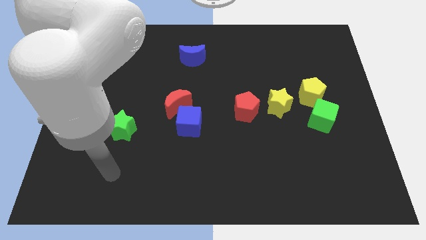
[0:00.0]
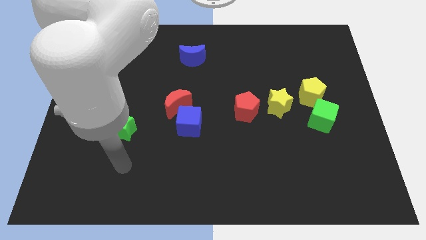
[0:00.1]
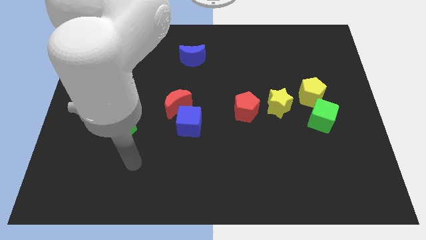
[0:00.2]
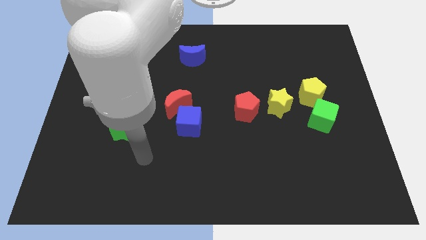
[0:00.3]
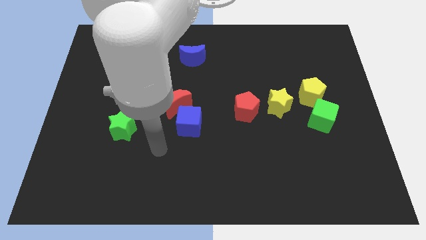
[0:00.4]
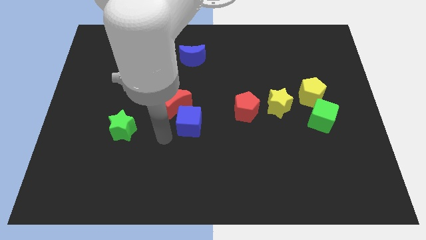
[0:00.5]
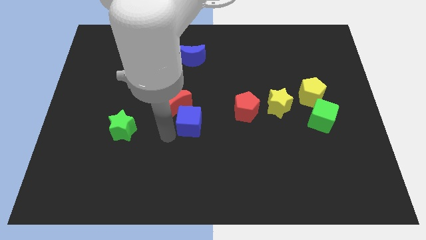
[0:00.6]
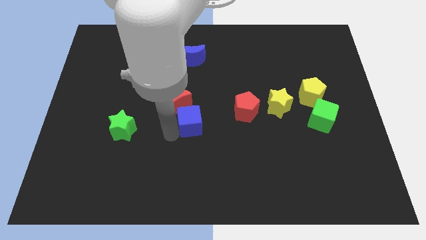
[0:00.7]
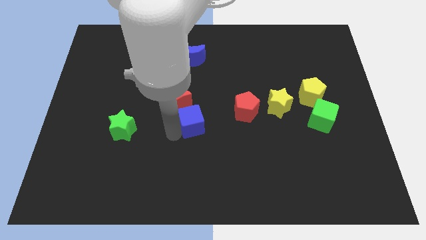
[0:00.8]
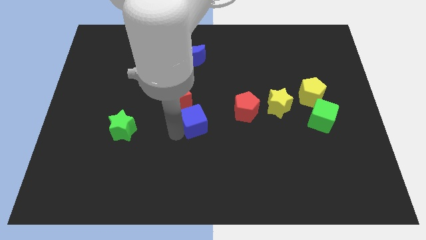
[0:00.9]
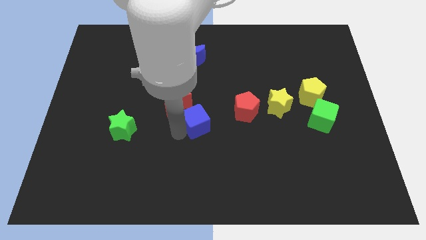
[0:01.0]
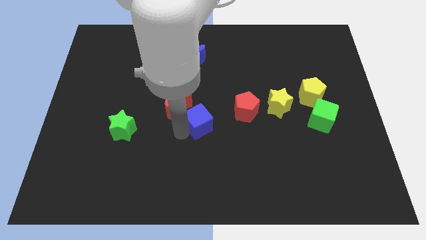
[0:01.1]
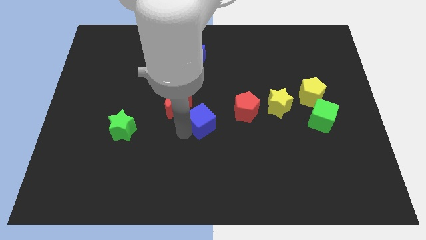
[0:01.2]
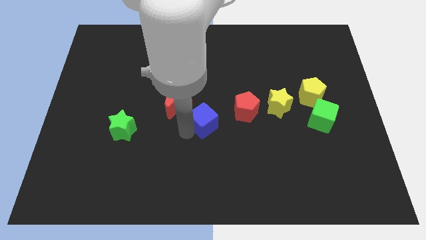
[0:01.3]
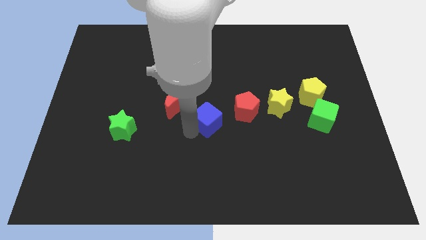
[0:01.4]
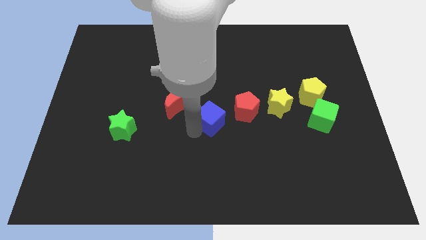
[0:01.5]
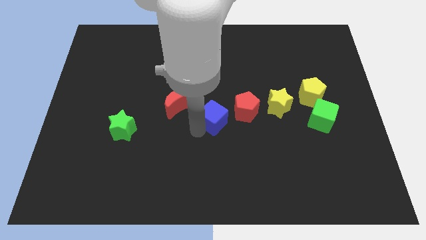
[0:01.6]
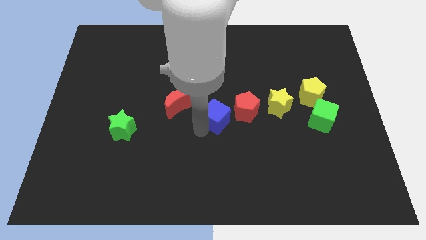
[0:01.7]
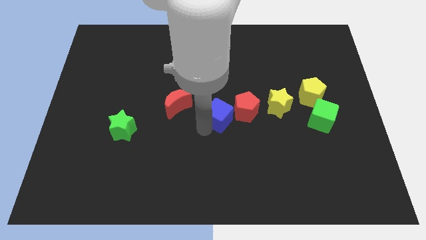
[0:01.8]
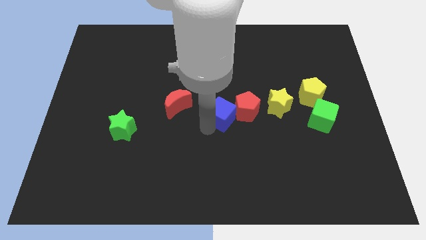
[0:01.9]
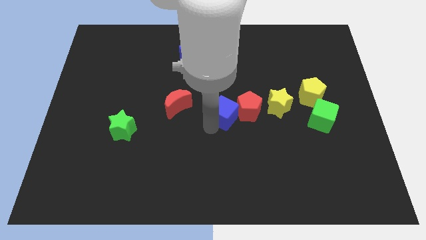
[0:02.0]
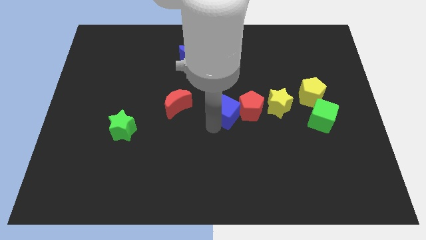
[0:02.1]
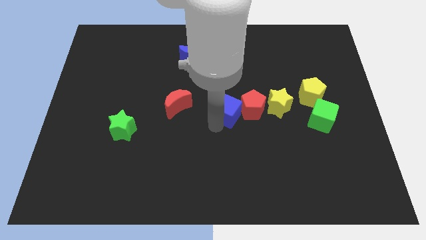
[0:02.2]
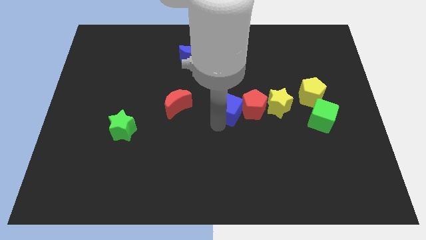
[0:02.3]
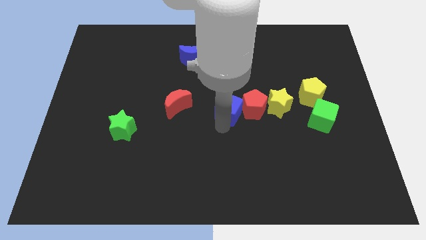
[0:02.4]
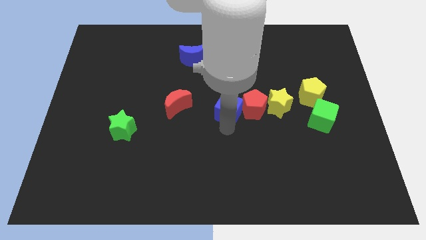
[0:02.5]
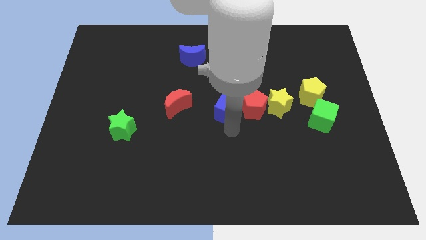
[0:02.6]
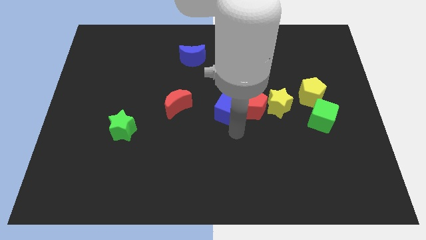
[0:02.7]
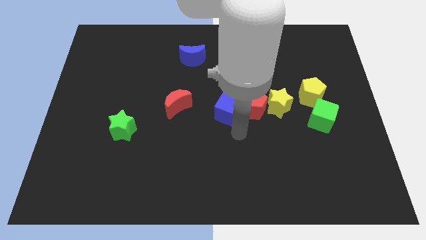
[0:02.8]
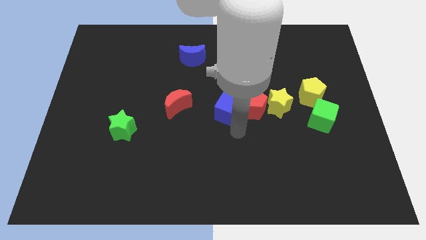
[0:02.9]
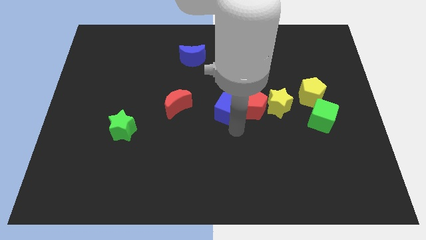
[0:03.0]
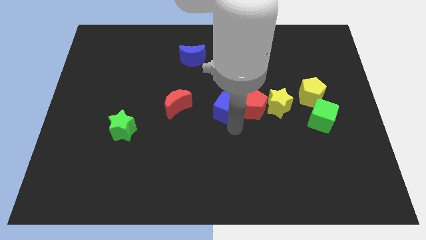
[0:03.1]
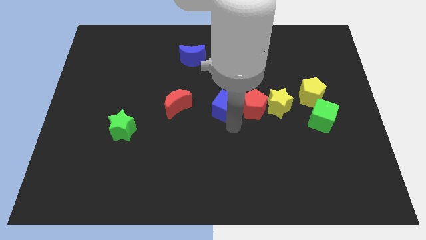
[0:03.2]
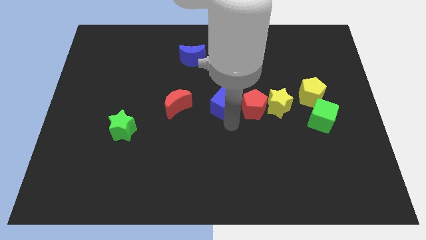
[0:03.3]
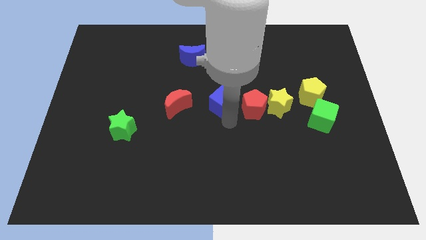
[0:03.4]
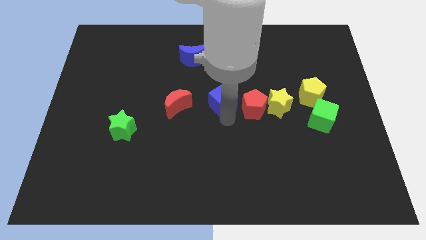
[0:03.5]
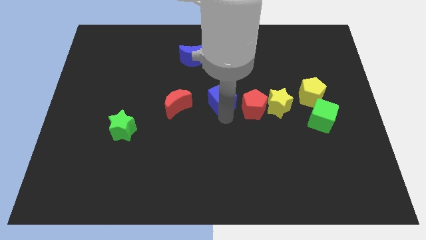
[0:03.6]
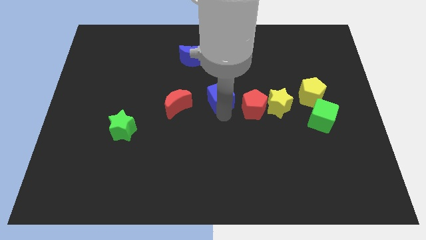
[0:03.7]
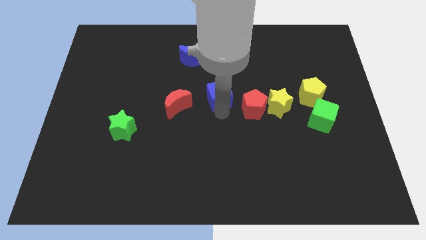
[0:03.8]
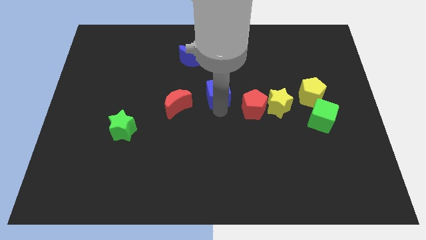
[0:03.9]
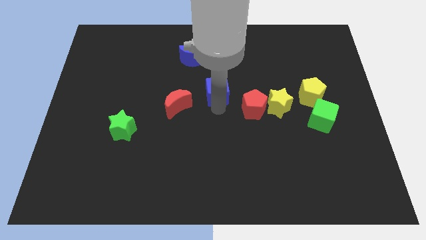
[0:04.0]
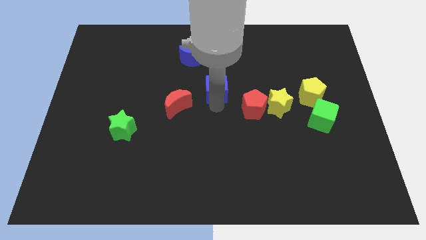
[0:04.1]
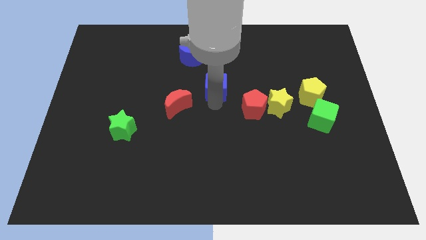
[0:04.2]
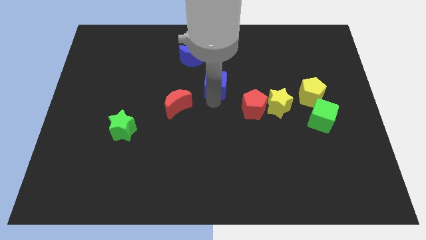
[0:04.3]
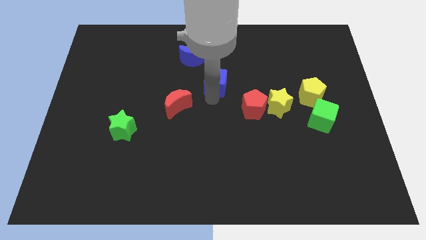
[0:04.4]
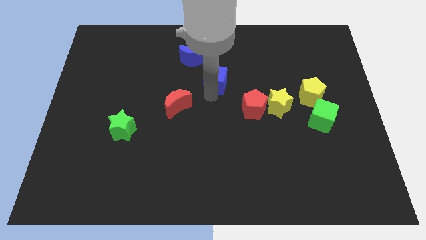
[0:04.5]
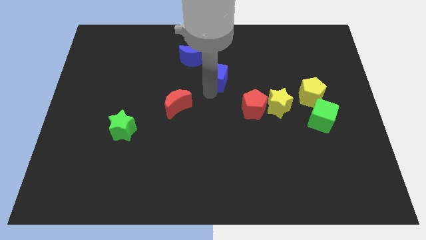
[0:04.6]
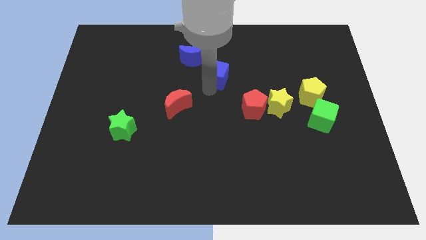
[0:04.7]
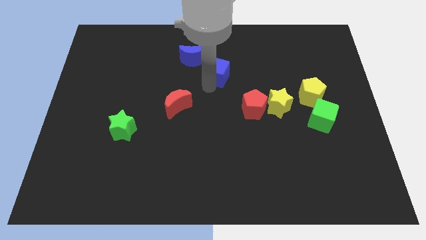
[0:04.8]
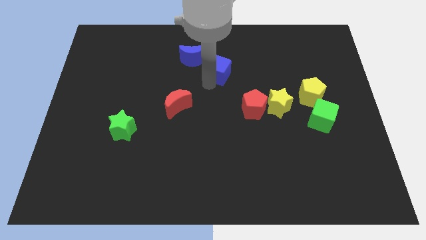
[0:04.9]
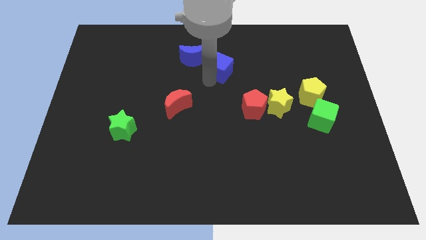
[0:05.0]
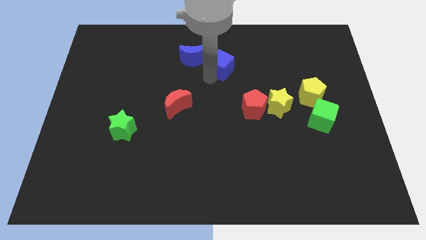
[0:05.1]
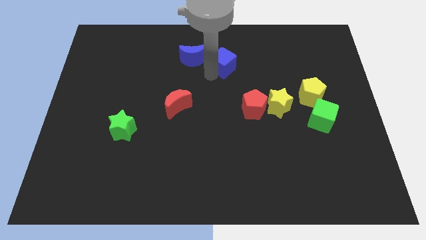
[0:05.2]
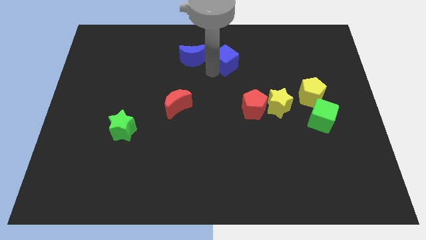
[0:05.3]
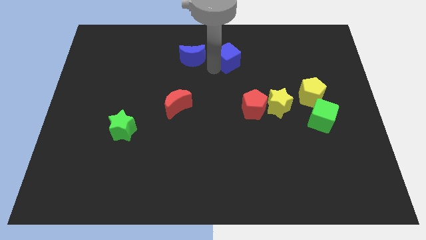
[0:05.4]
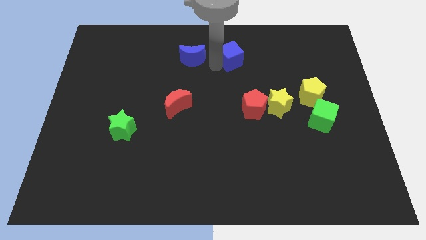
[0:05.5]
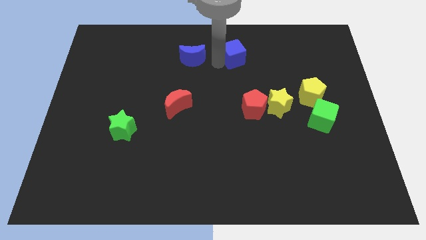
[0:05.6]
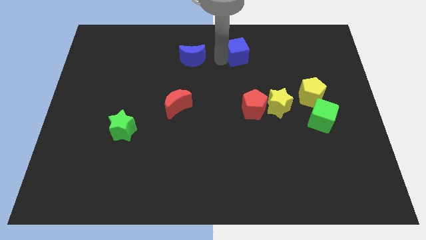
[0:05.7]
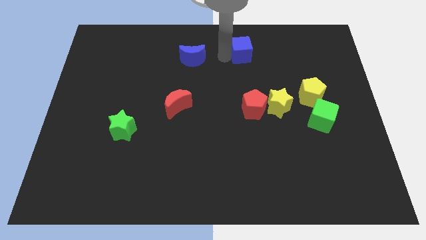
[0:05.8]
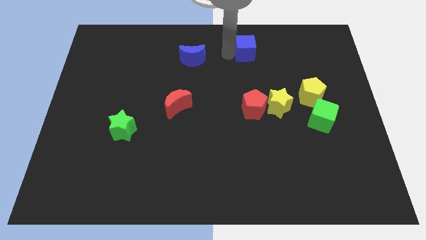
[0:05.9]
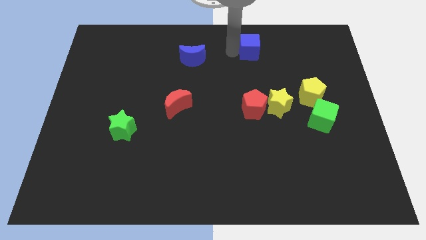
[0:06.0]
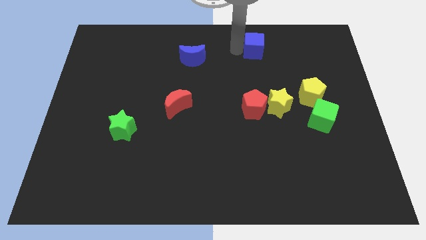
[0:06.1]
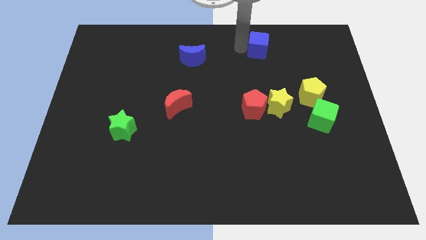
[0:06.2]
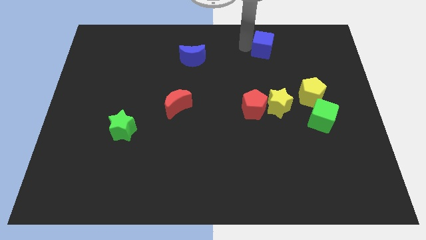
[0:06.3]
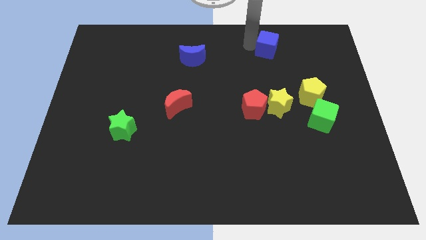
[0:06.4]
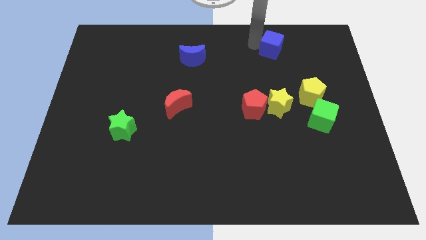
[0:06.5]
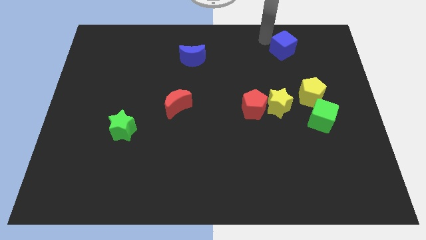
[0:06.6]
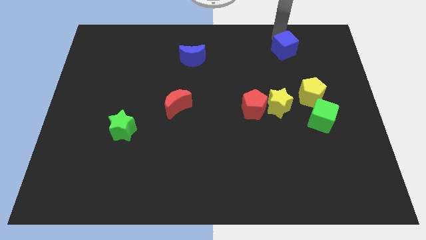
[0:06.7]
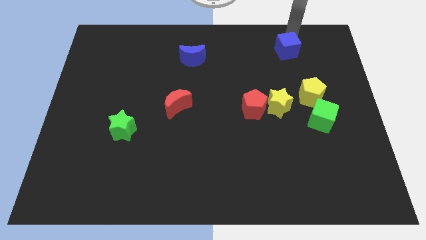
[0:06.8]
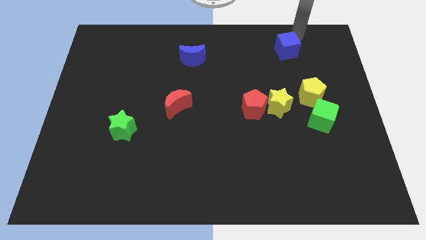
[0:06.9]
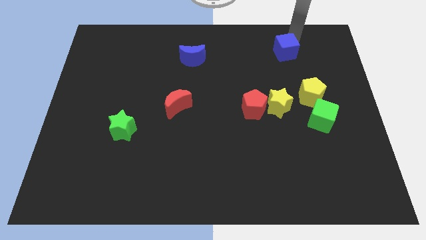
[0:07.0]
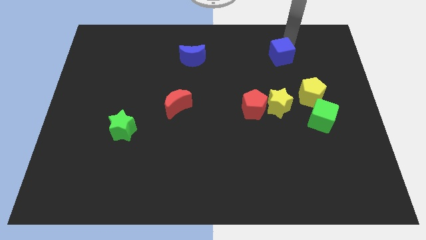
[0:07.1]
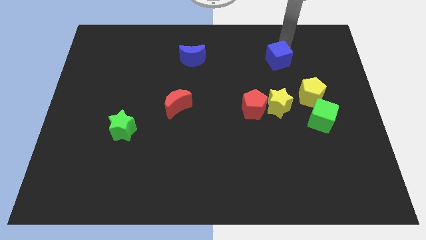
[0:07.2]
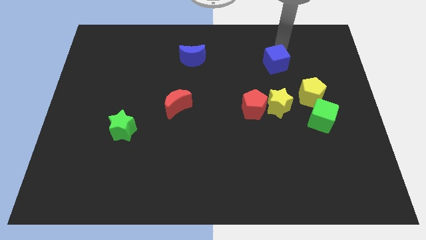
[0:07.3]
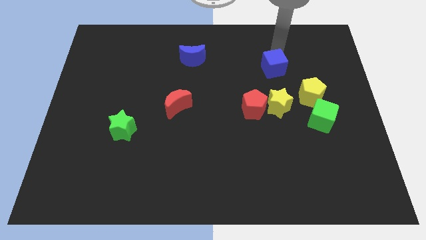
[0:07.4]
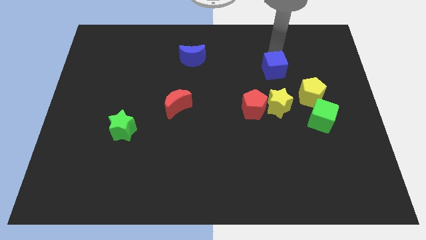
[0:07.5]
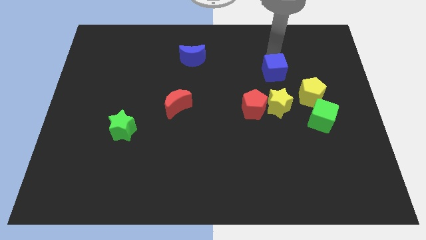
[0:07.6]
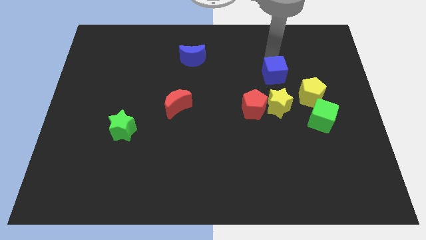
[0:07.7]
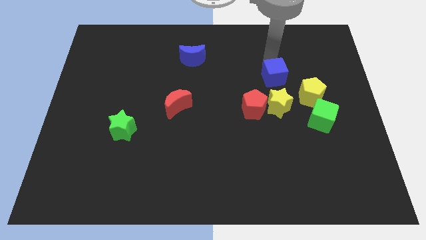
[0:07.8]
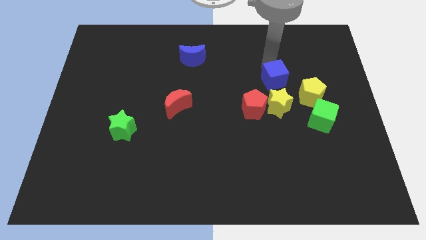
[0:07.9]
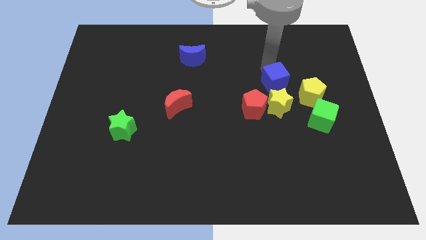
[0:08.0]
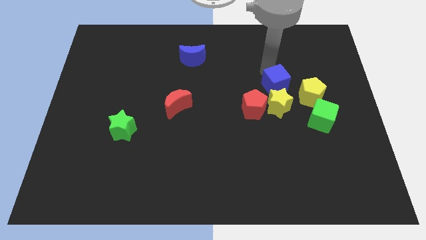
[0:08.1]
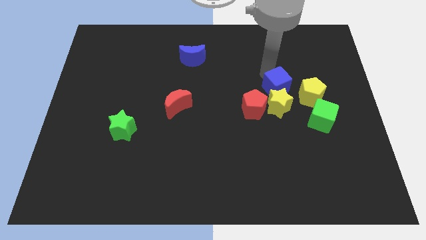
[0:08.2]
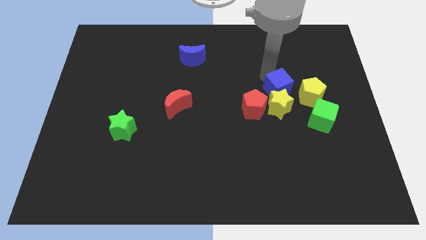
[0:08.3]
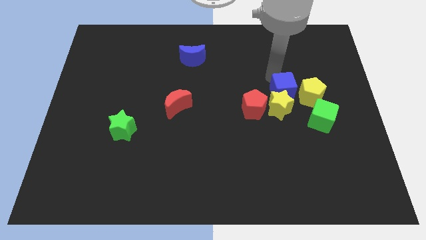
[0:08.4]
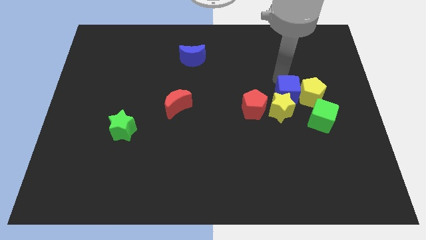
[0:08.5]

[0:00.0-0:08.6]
push the blue cube next to the yellow pentagon
